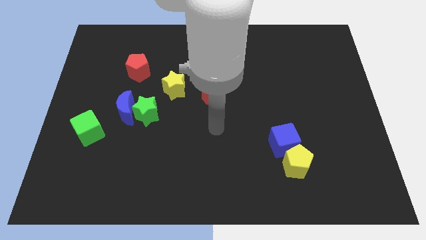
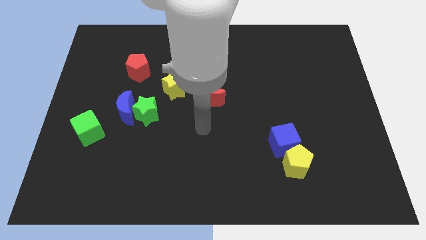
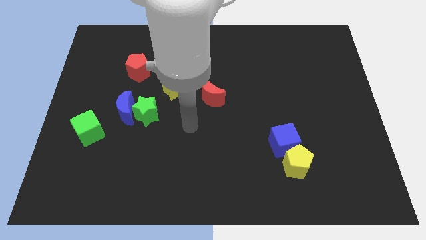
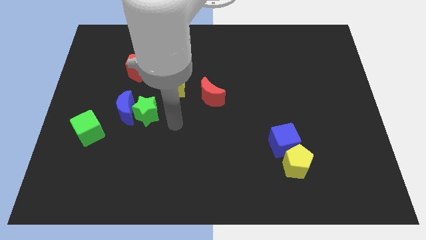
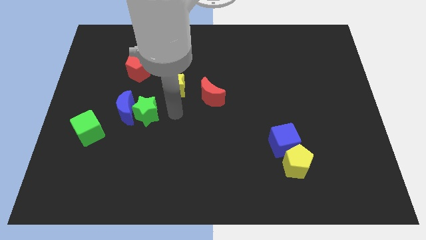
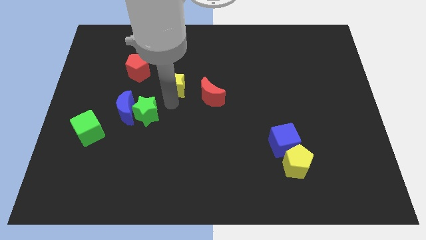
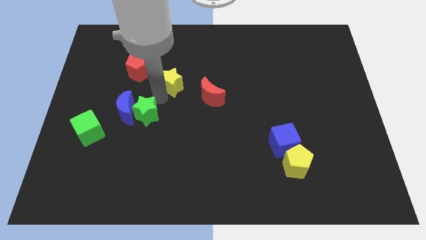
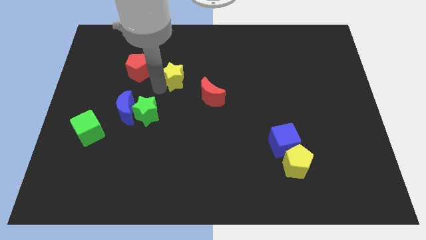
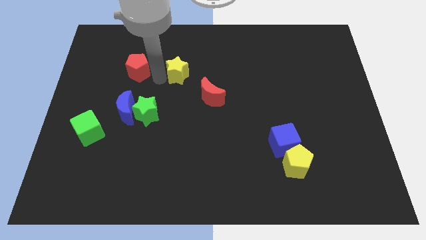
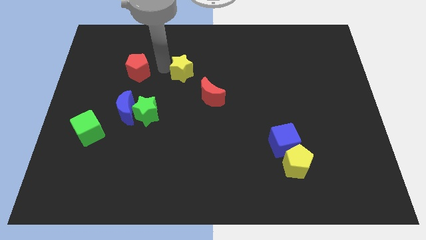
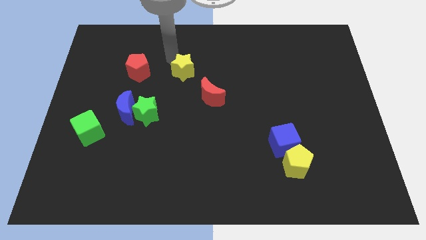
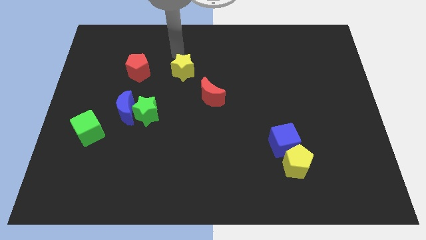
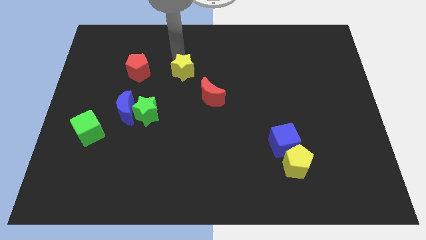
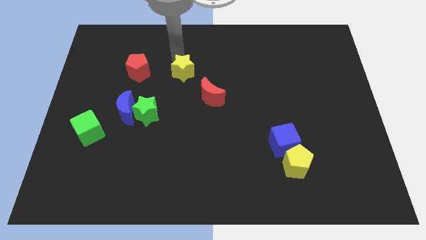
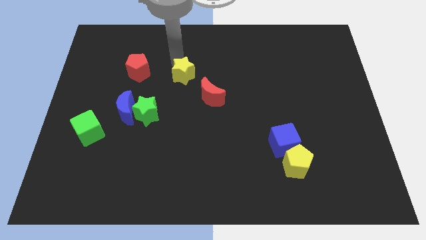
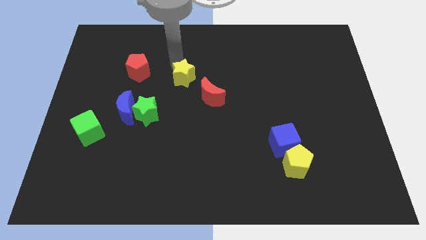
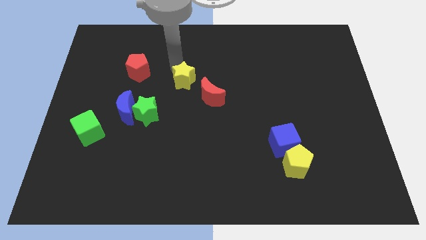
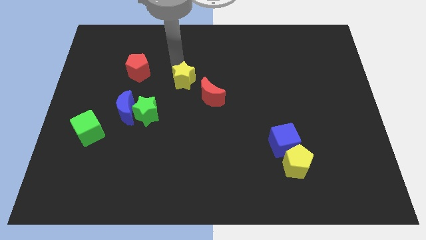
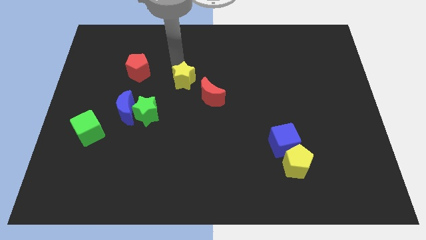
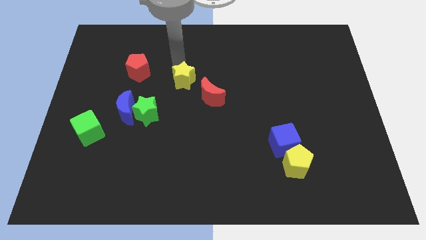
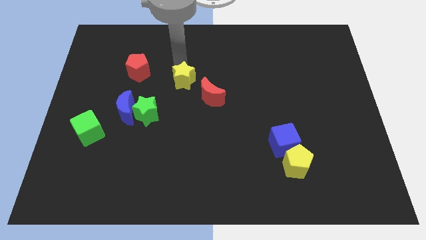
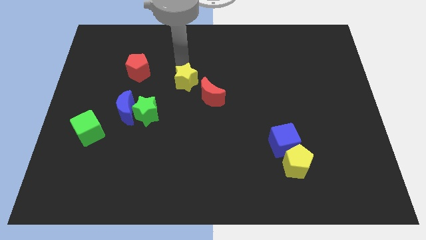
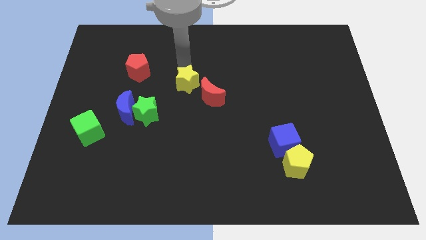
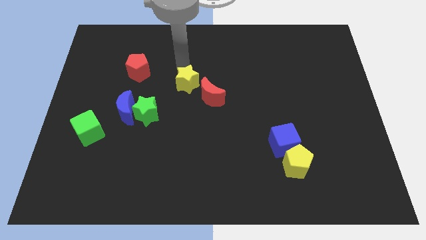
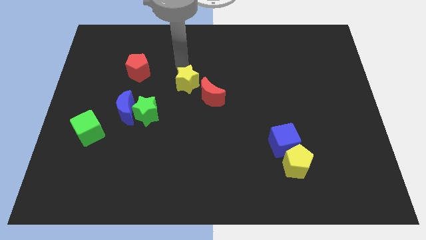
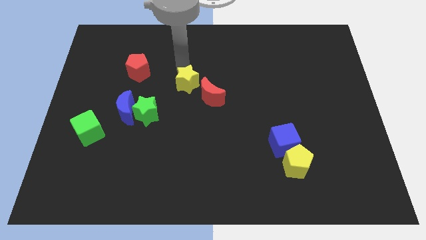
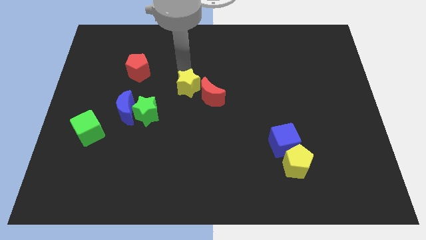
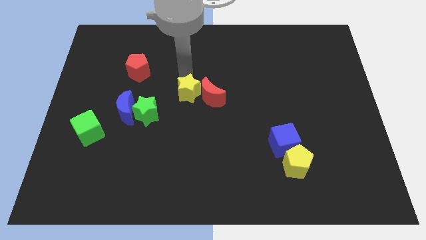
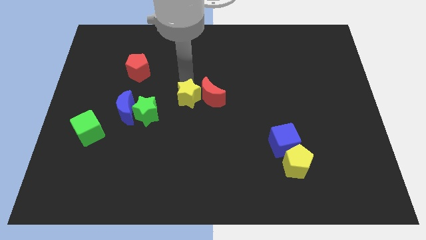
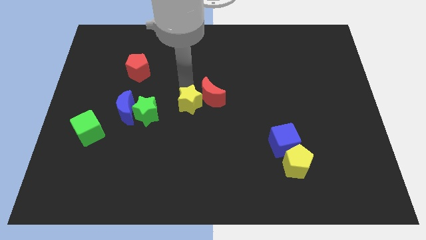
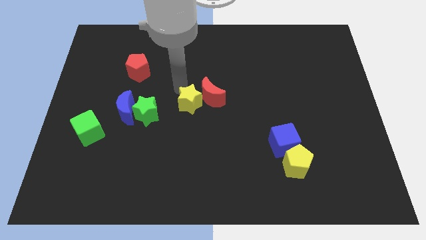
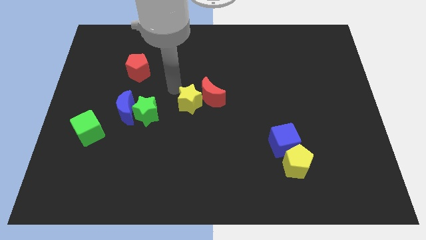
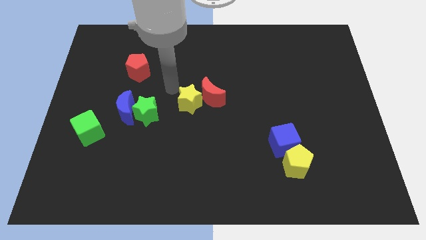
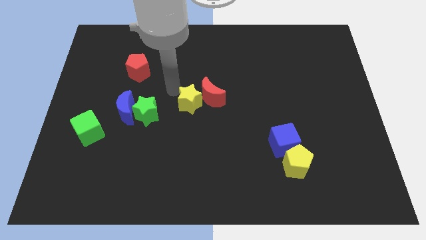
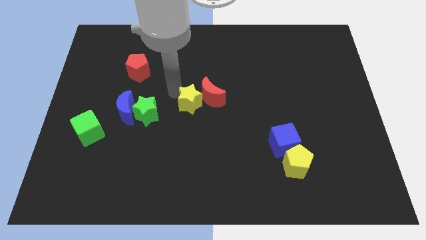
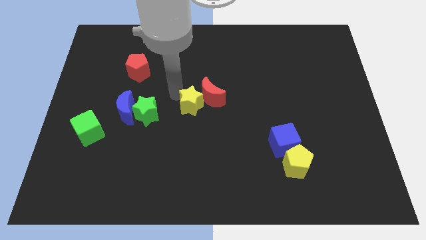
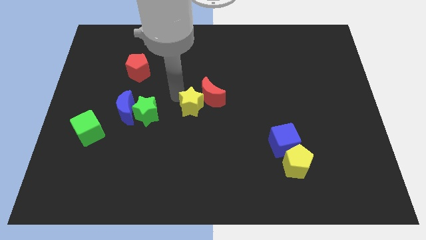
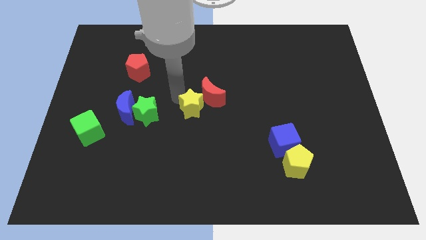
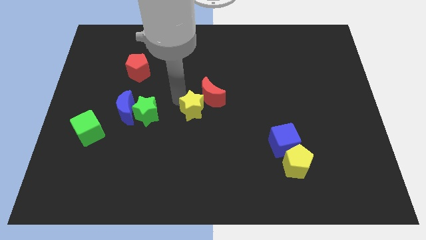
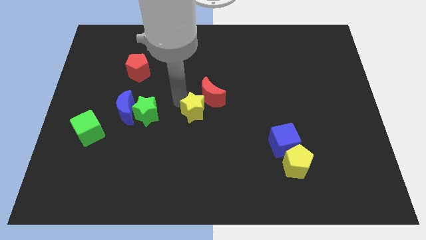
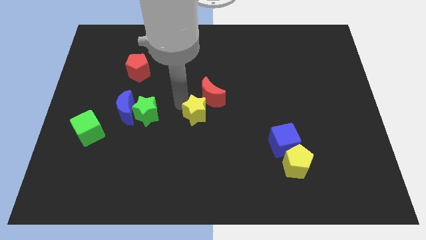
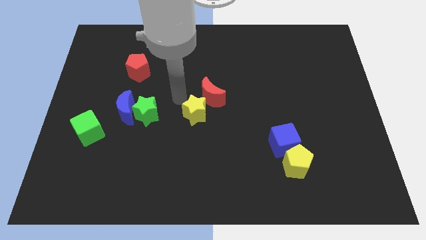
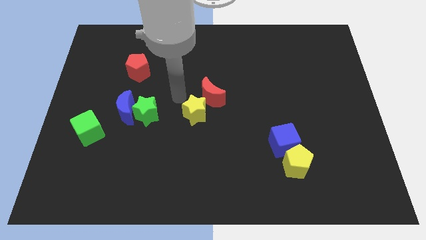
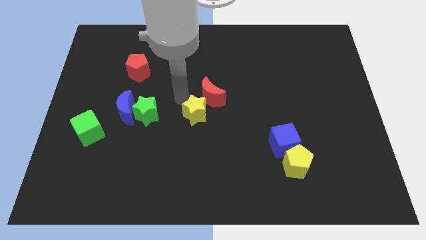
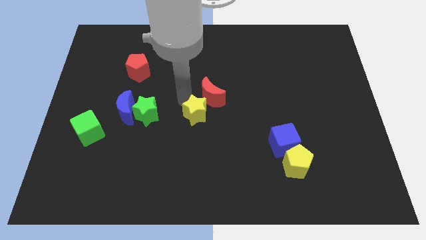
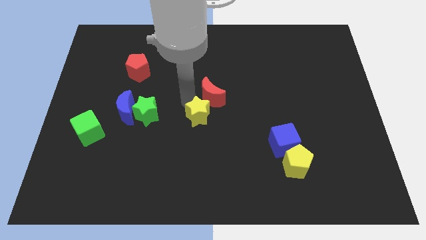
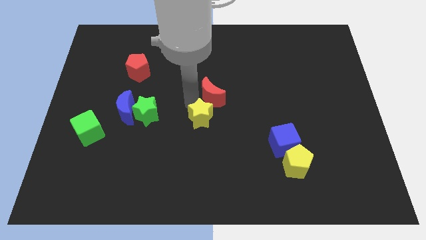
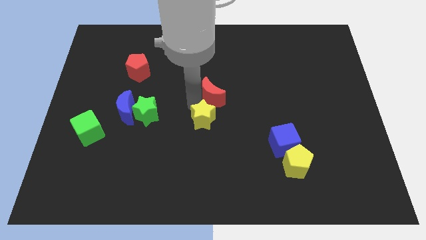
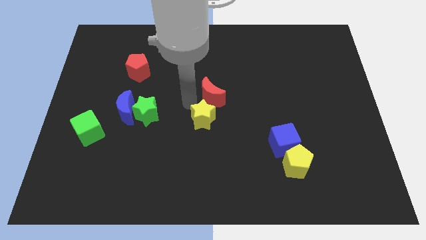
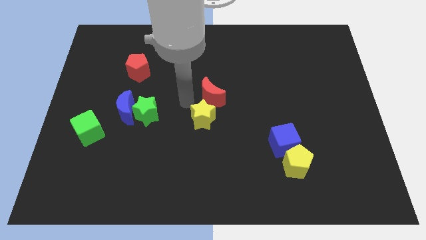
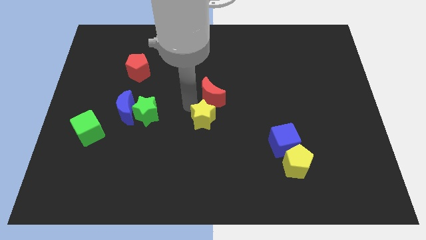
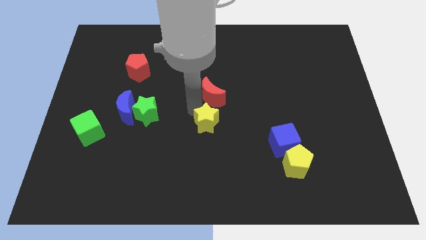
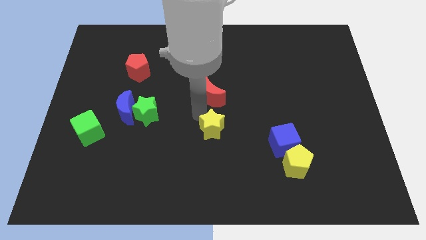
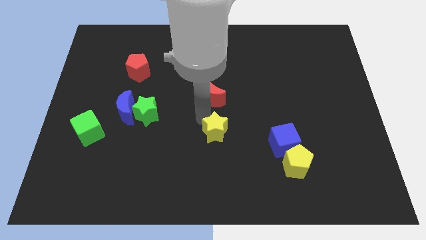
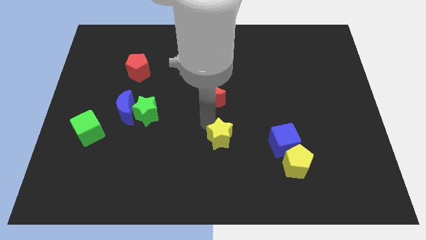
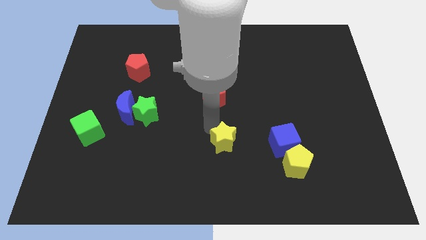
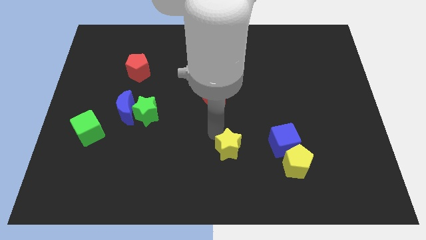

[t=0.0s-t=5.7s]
push the yellow star down and then to the right

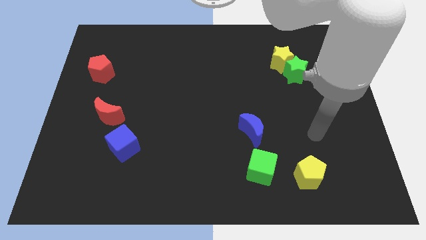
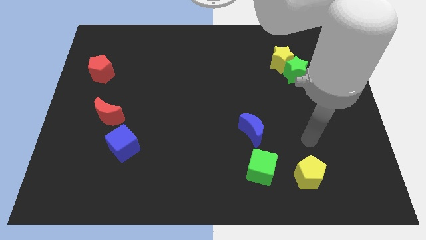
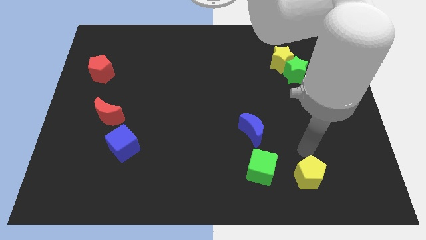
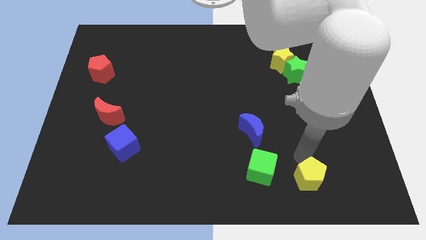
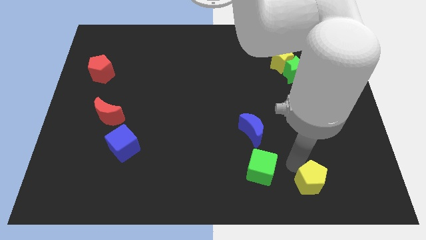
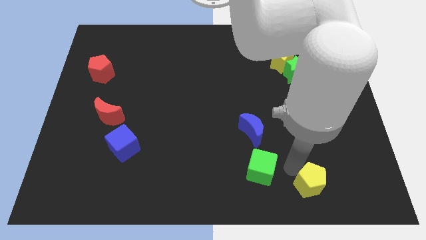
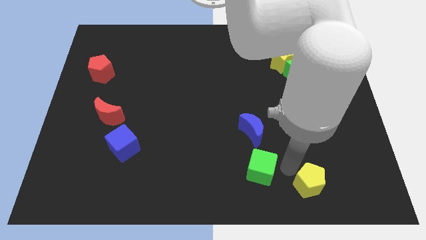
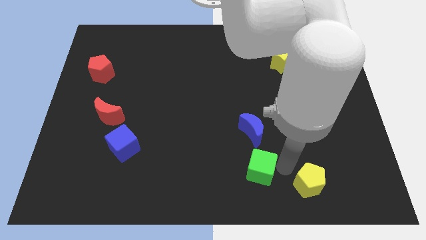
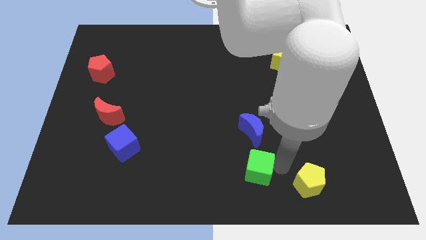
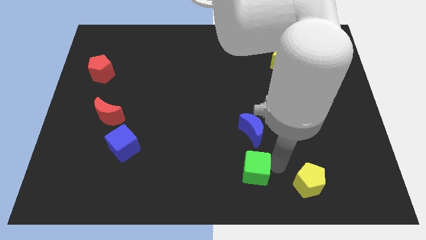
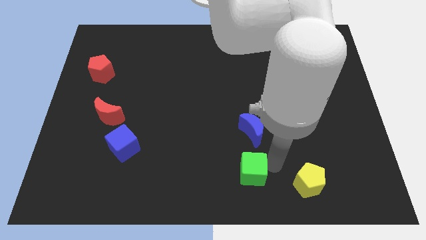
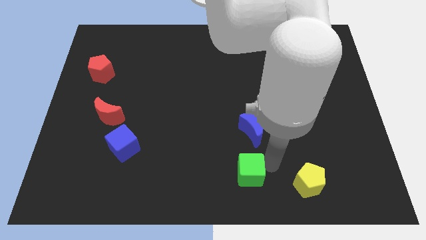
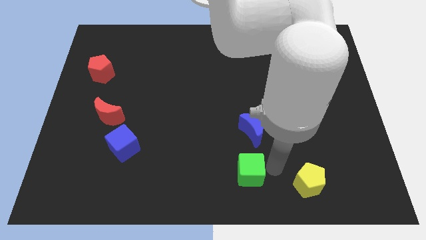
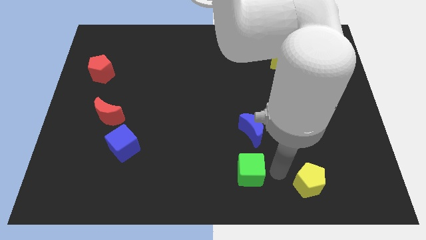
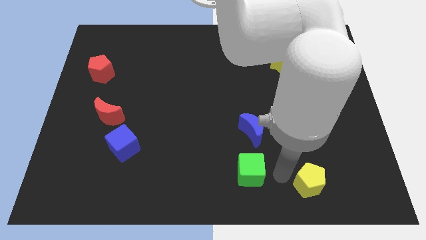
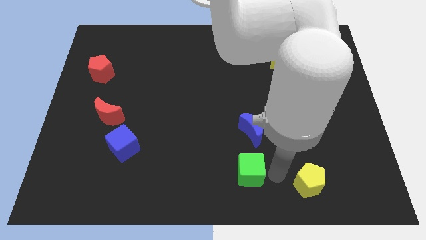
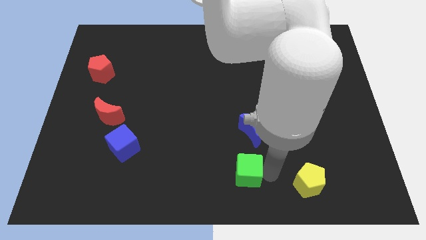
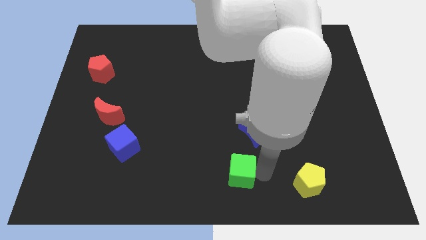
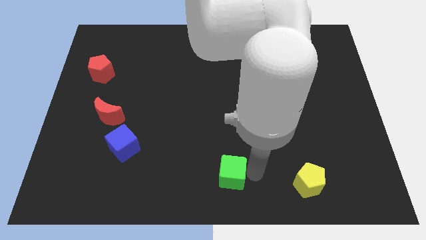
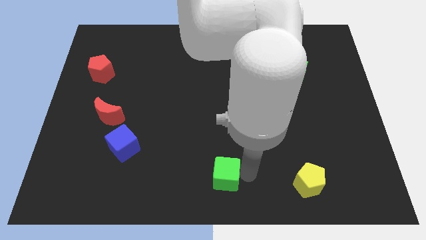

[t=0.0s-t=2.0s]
push the green cube a little bit left

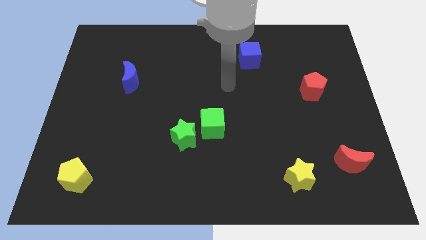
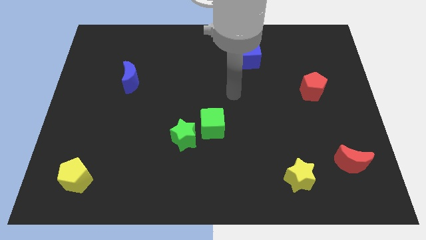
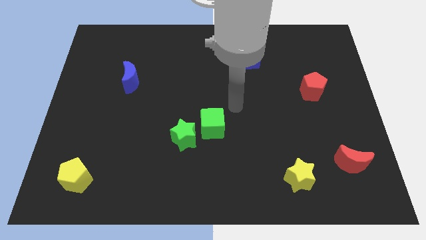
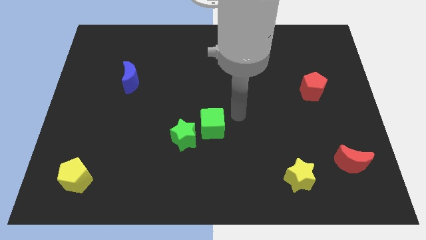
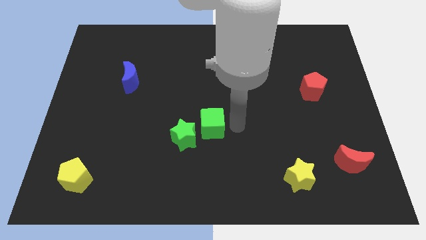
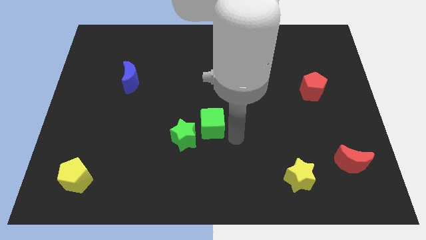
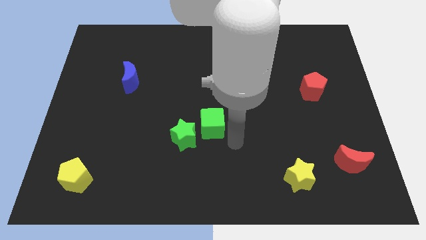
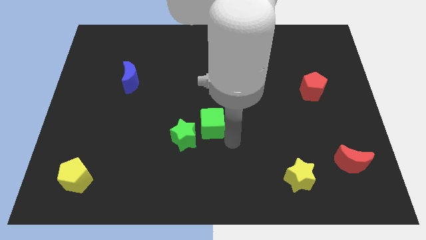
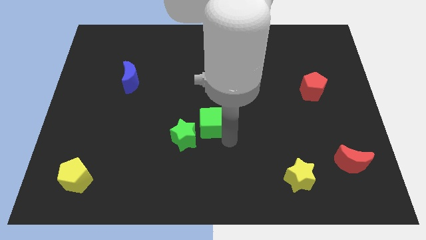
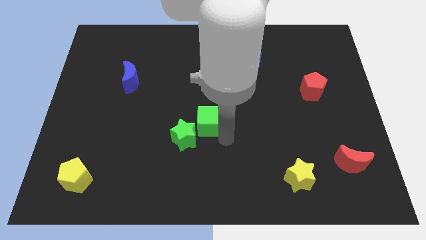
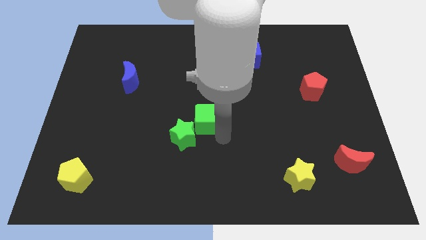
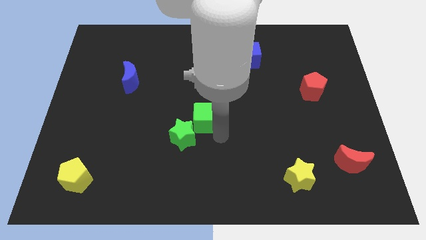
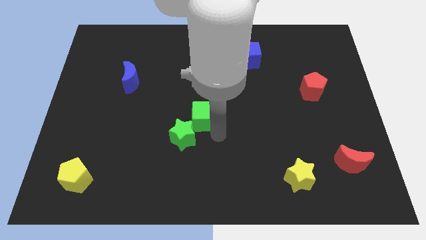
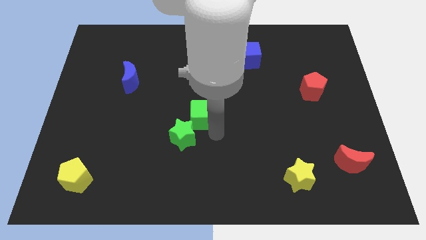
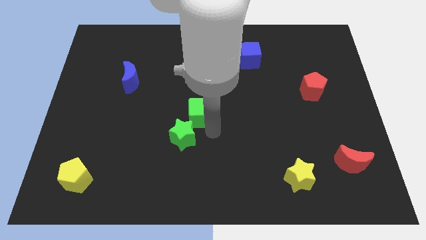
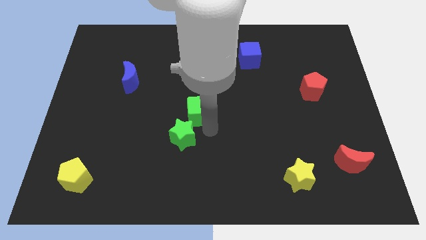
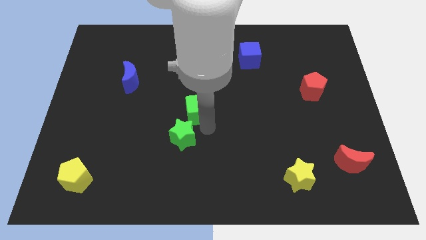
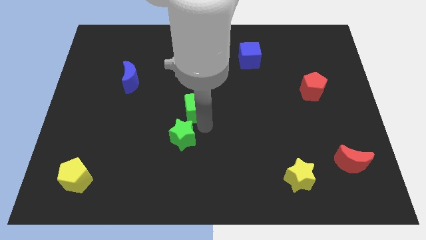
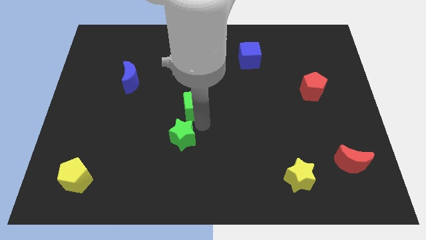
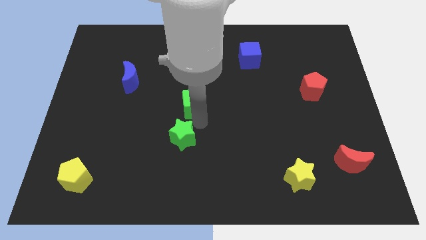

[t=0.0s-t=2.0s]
move the green cube a little upwards and left diagonally
